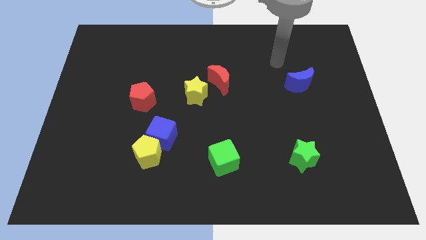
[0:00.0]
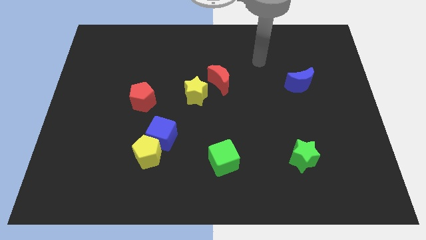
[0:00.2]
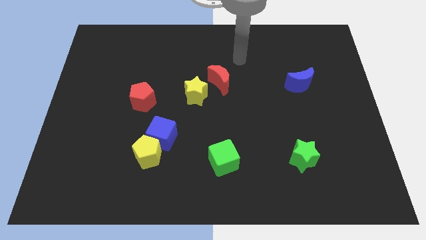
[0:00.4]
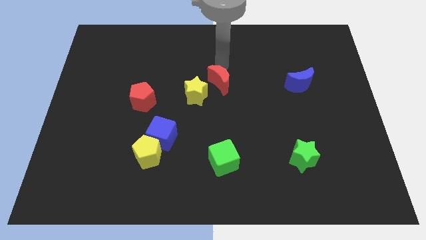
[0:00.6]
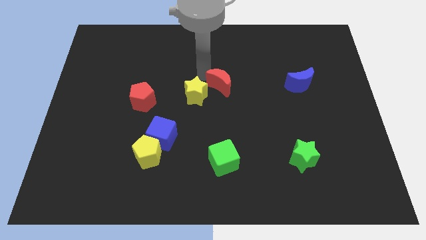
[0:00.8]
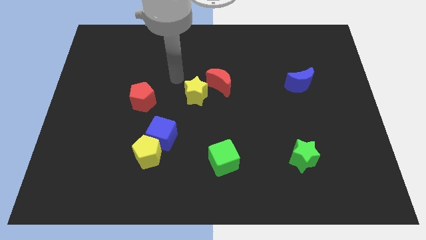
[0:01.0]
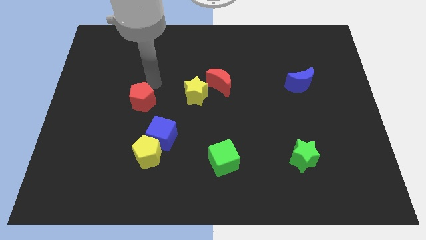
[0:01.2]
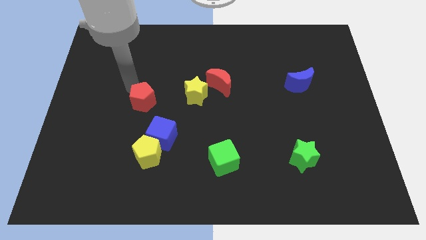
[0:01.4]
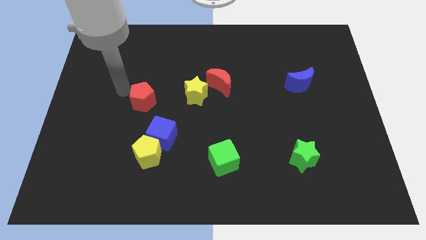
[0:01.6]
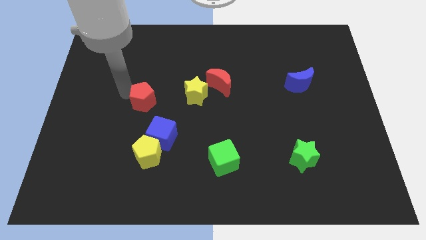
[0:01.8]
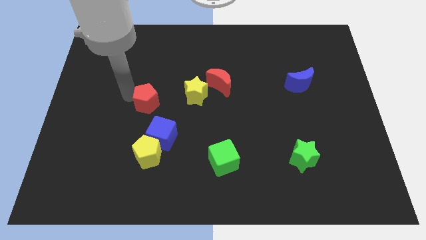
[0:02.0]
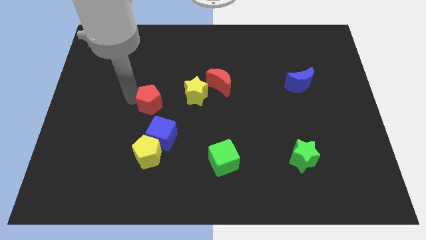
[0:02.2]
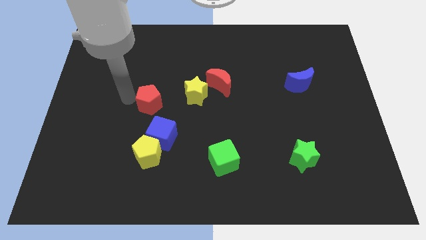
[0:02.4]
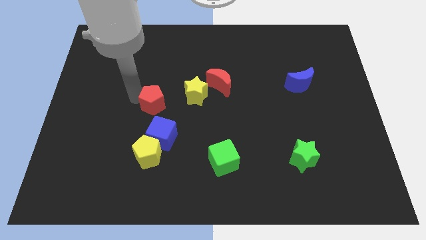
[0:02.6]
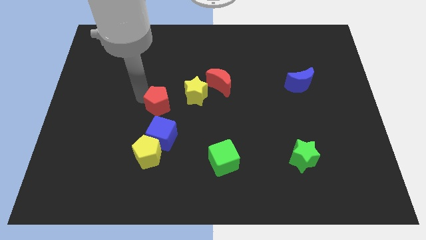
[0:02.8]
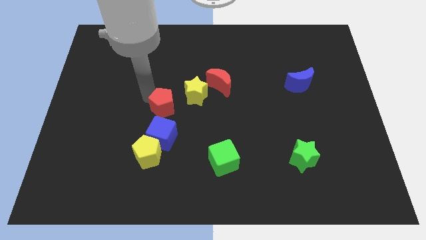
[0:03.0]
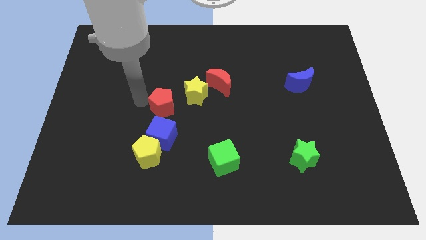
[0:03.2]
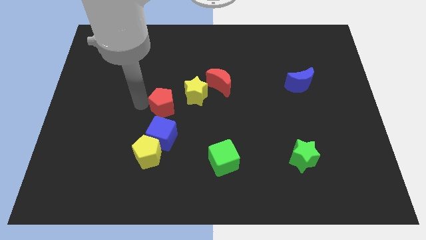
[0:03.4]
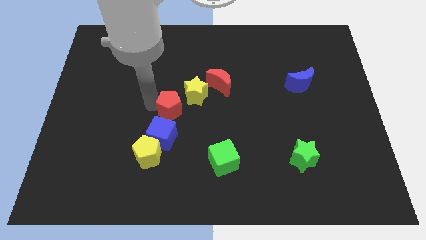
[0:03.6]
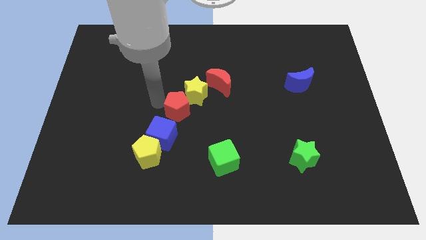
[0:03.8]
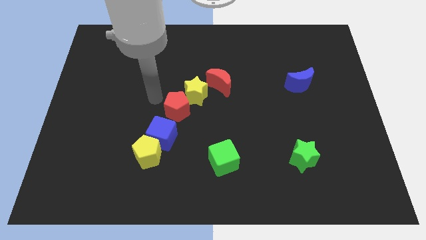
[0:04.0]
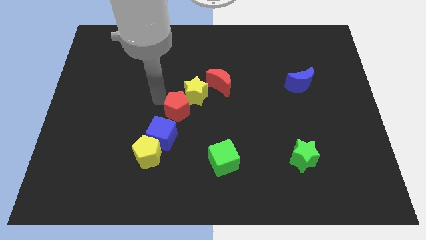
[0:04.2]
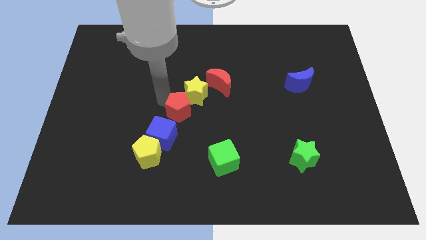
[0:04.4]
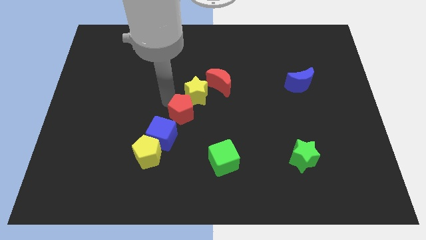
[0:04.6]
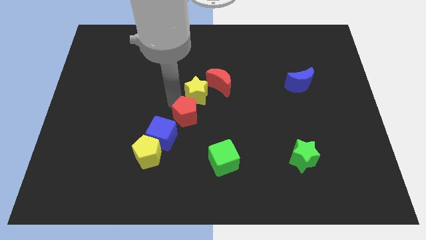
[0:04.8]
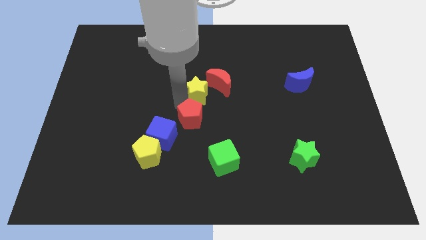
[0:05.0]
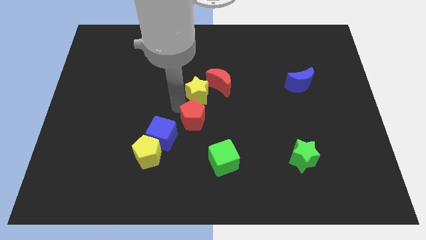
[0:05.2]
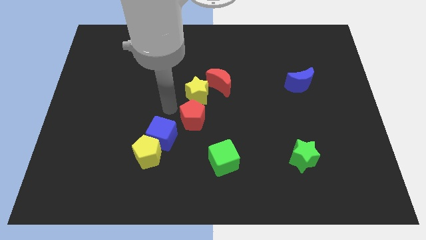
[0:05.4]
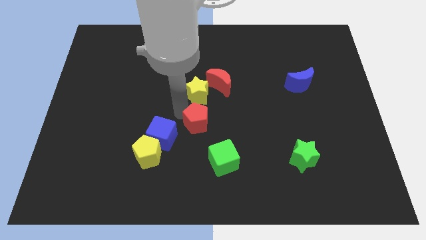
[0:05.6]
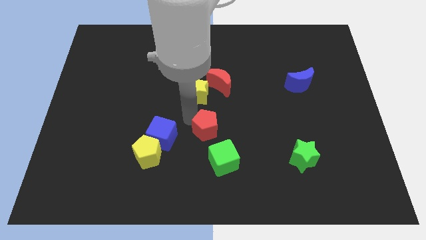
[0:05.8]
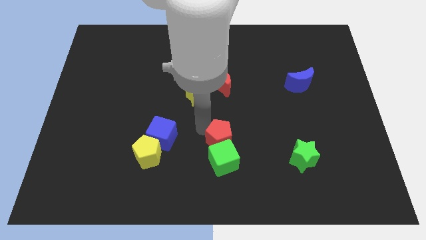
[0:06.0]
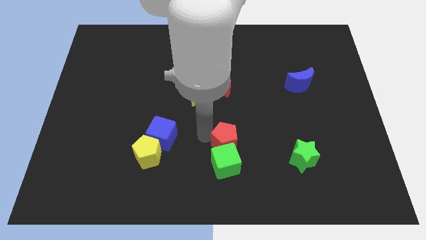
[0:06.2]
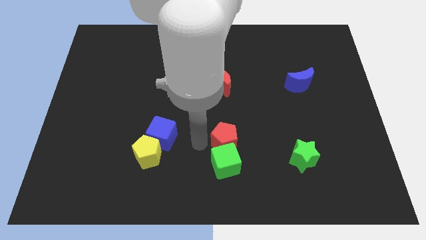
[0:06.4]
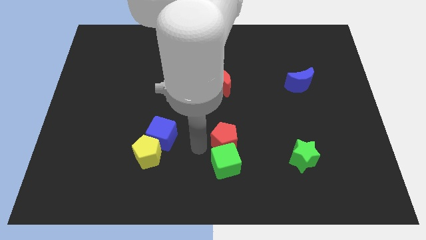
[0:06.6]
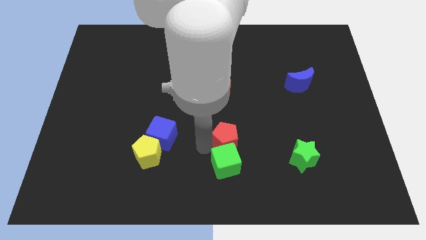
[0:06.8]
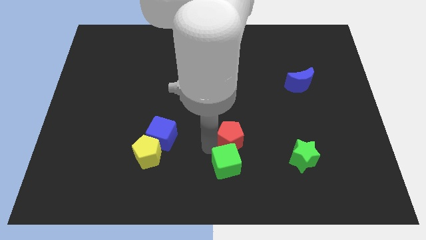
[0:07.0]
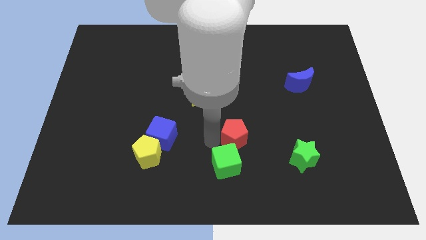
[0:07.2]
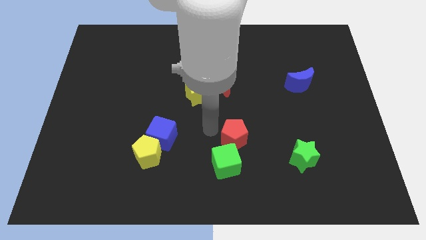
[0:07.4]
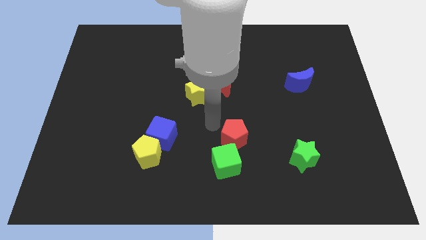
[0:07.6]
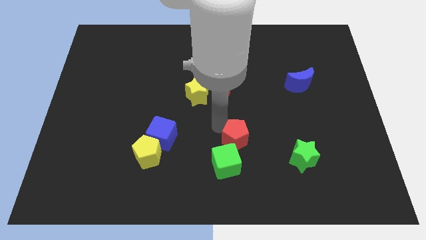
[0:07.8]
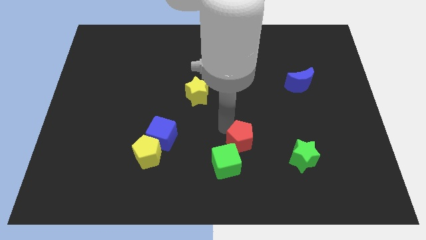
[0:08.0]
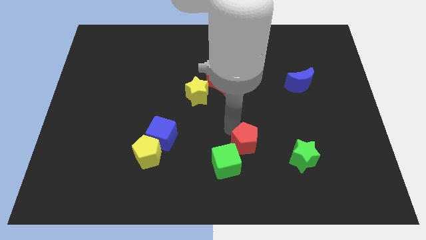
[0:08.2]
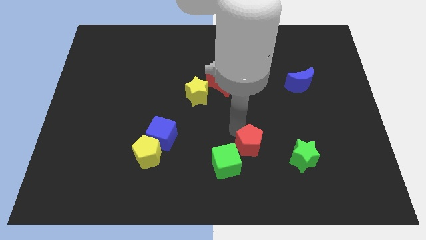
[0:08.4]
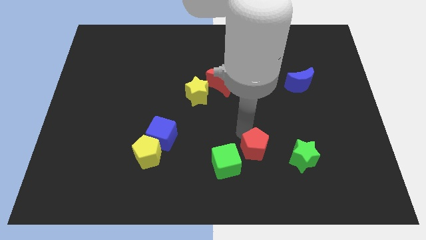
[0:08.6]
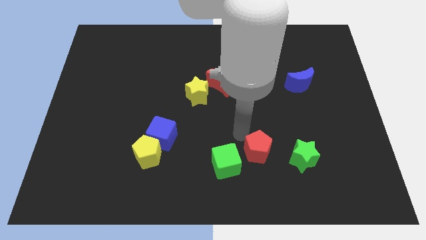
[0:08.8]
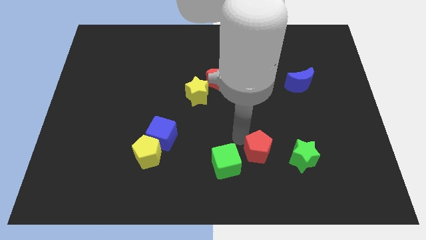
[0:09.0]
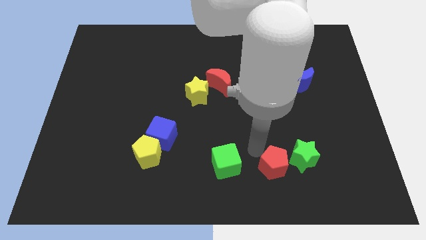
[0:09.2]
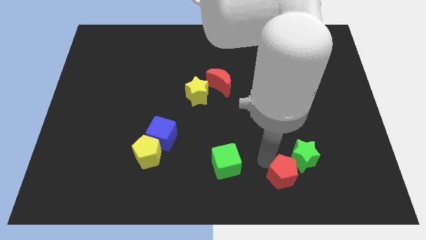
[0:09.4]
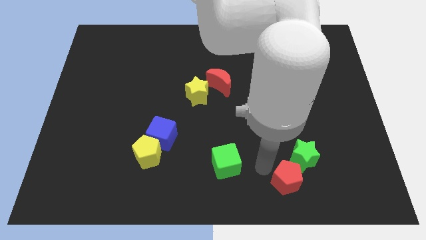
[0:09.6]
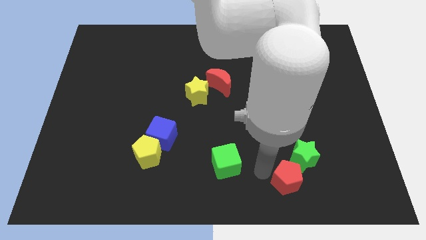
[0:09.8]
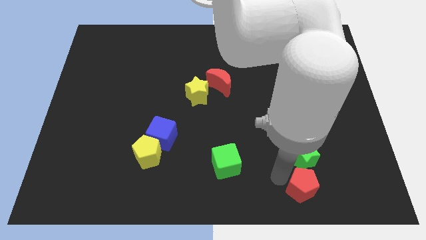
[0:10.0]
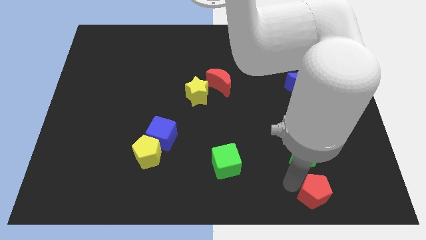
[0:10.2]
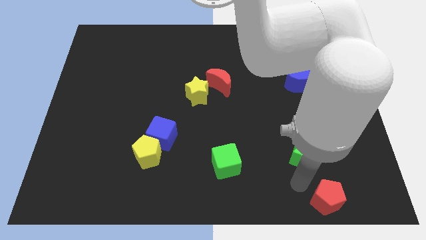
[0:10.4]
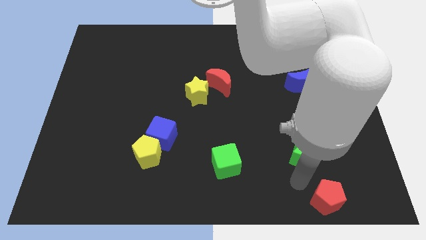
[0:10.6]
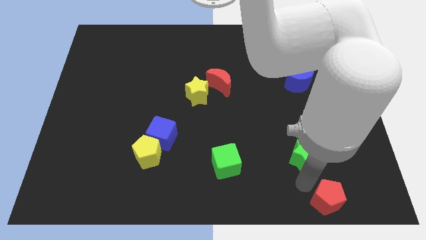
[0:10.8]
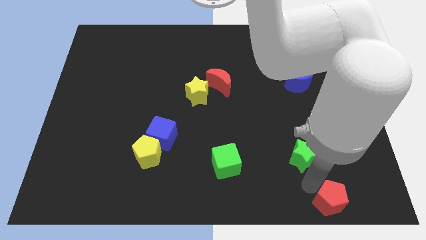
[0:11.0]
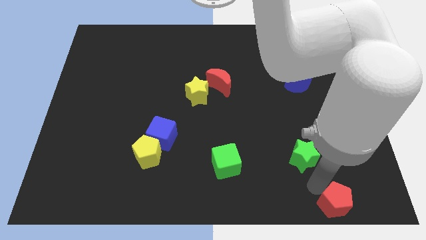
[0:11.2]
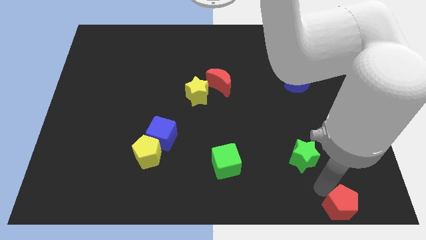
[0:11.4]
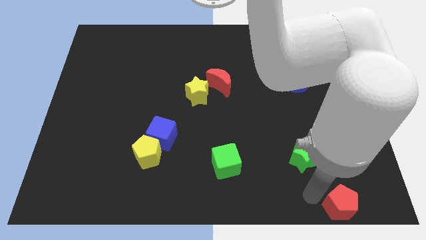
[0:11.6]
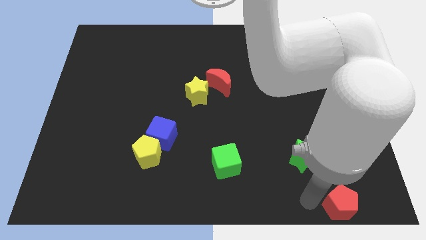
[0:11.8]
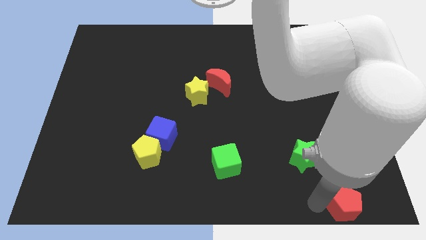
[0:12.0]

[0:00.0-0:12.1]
push the red pentagon to the bottom right of the board
